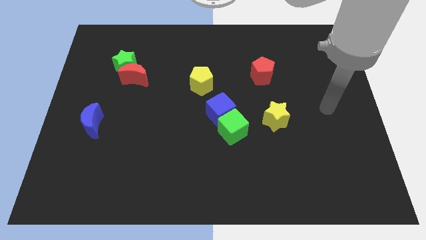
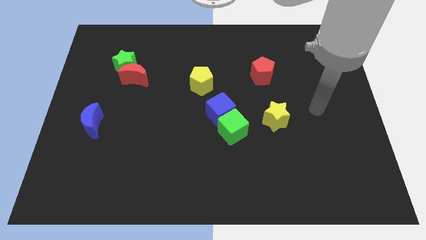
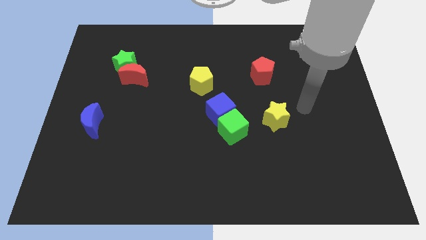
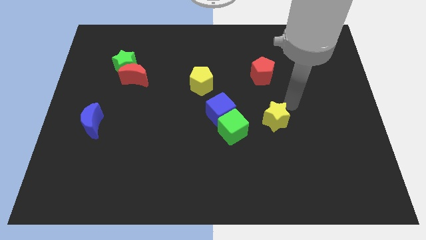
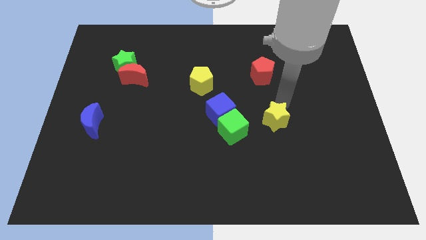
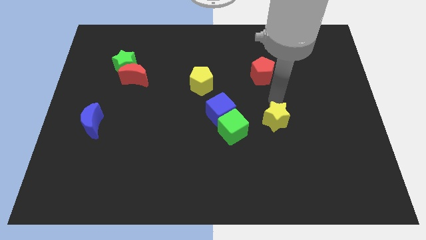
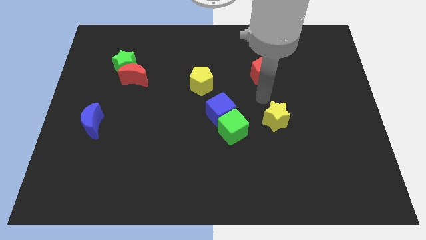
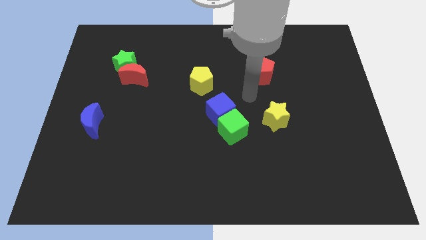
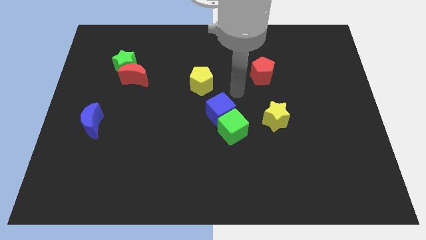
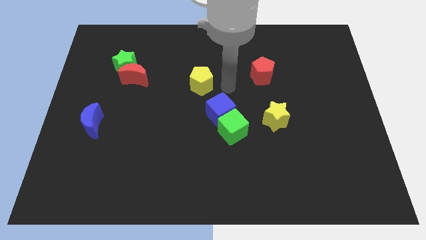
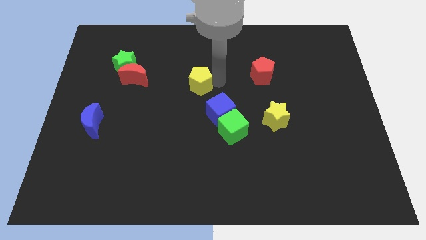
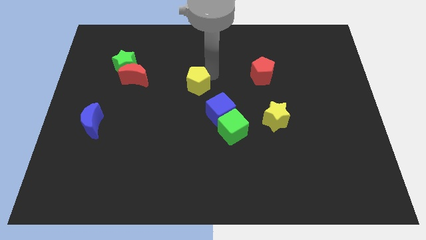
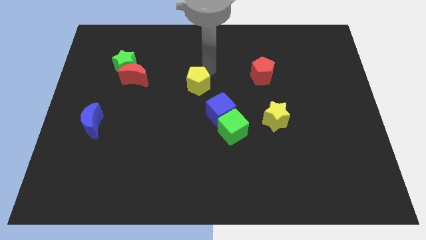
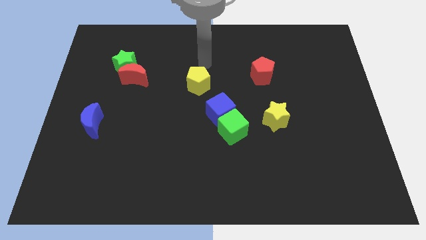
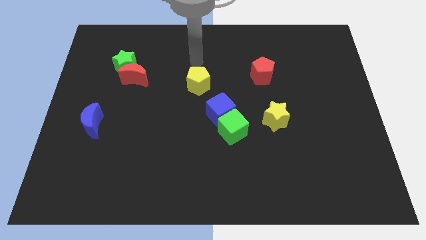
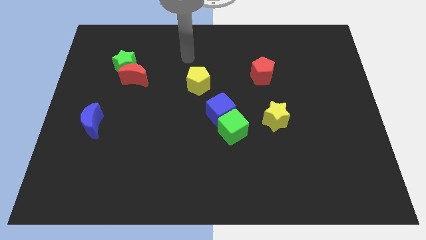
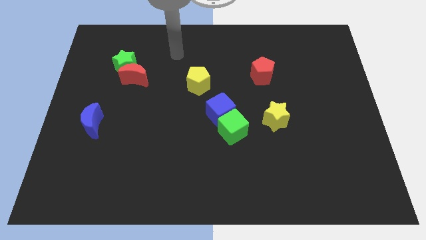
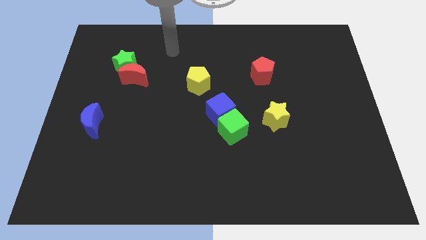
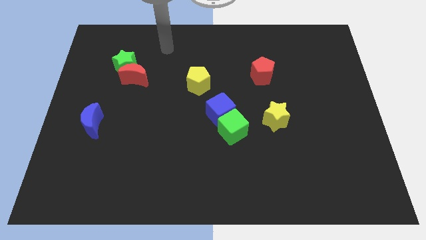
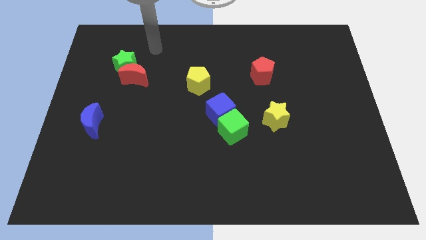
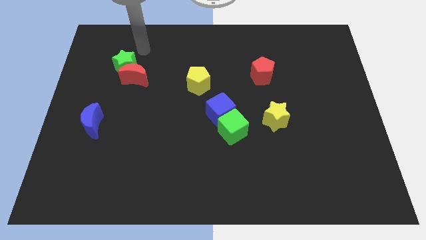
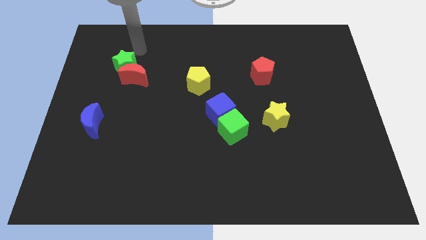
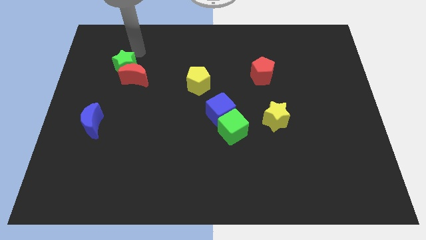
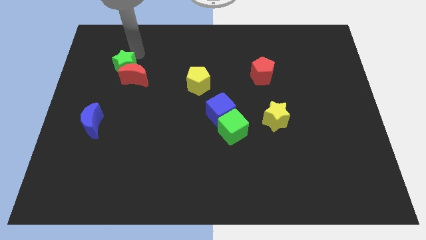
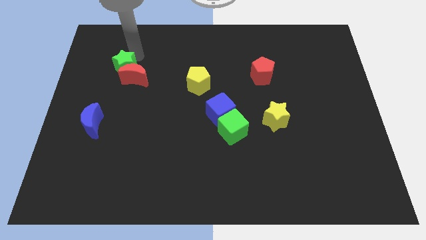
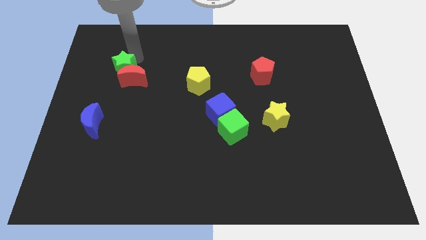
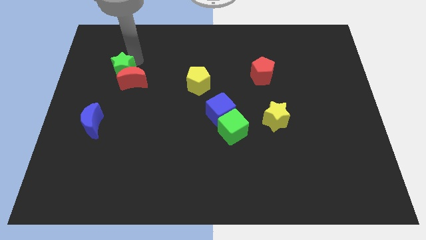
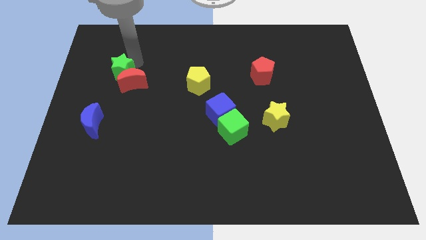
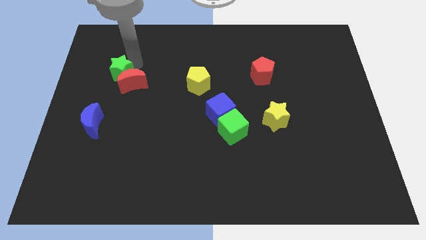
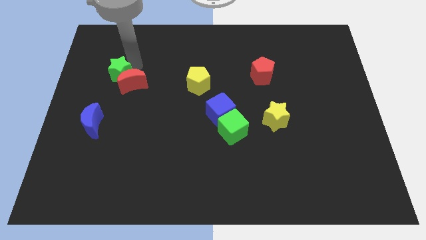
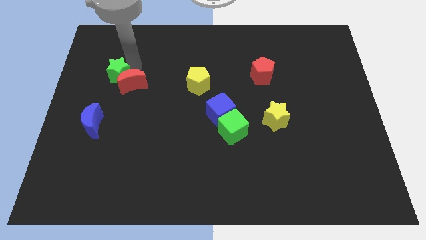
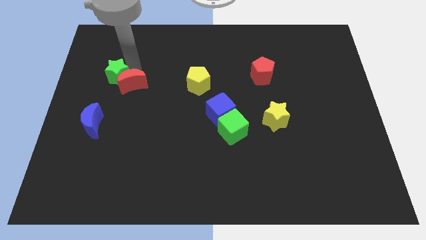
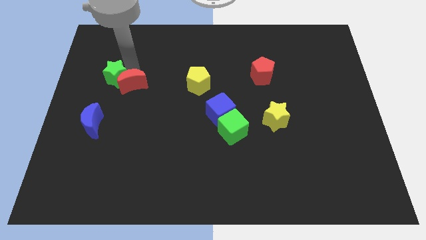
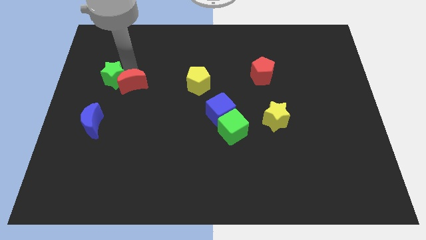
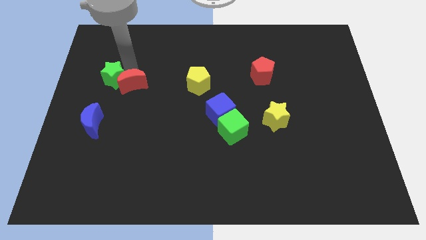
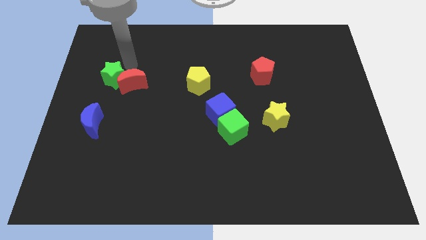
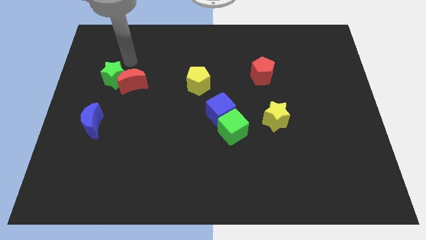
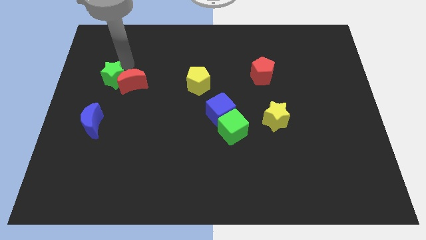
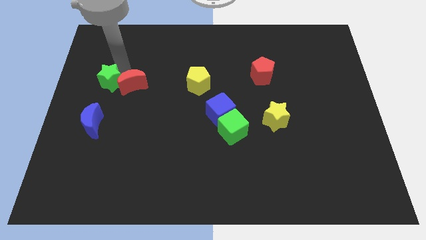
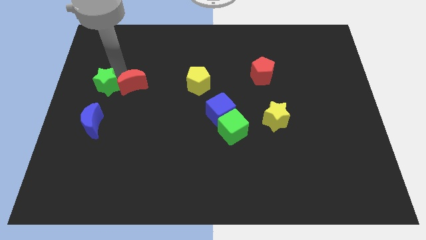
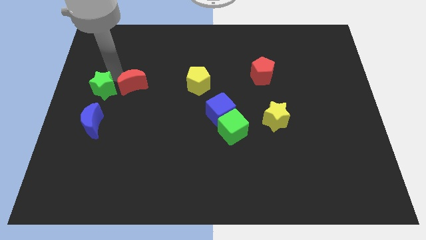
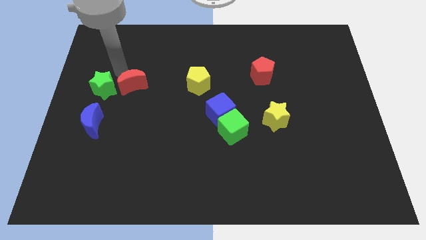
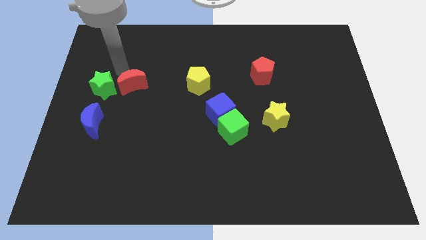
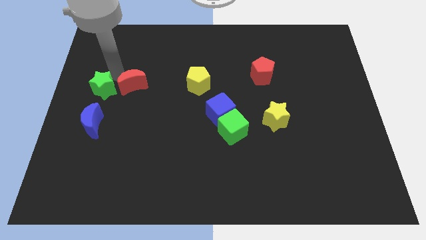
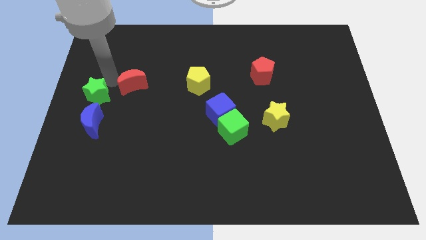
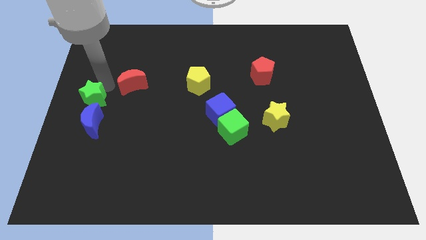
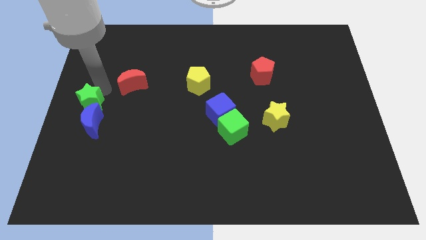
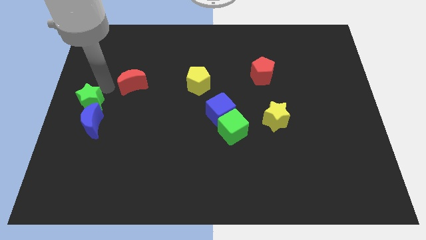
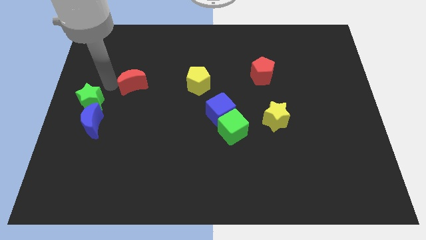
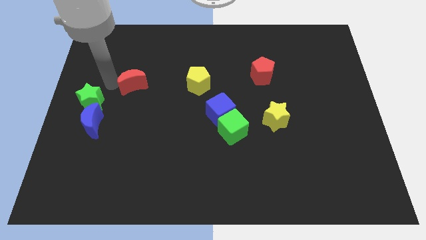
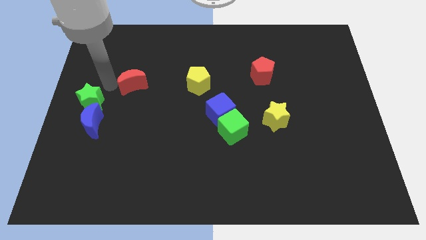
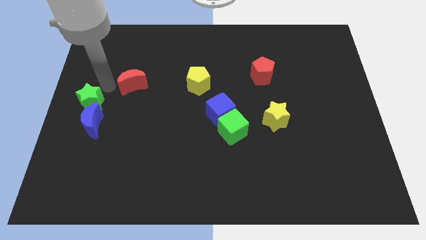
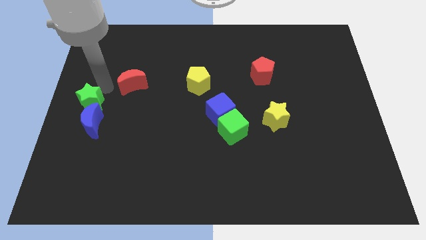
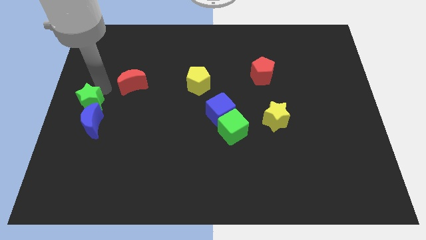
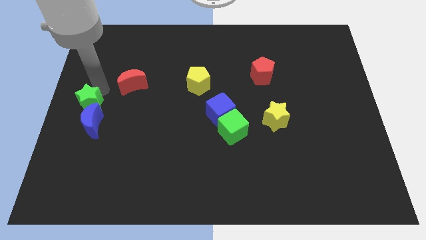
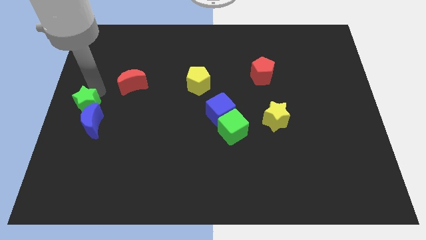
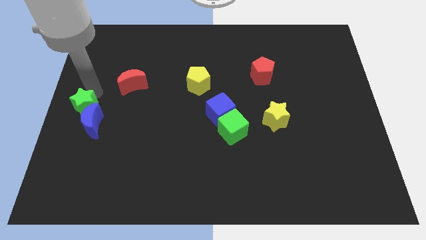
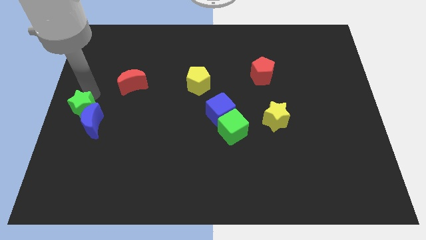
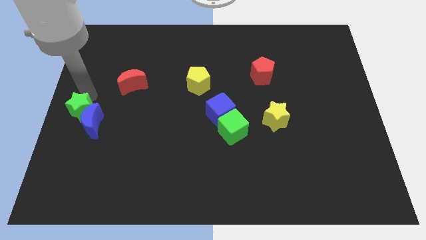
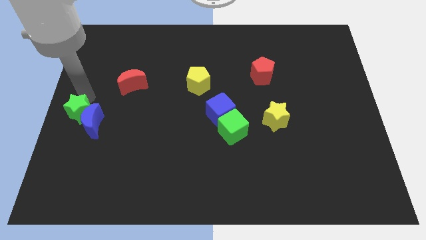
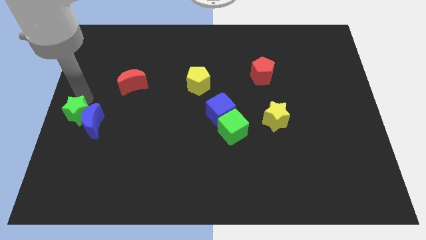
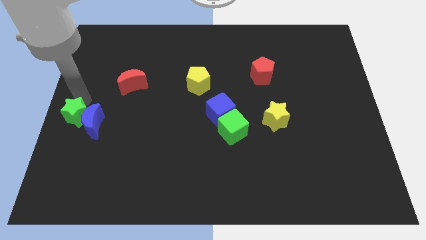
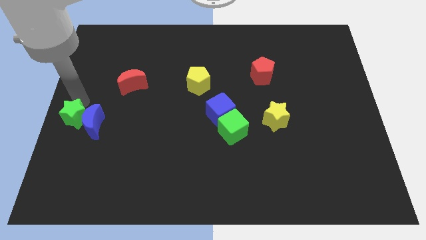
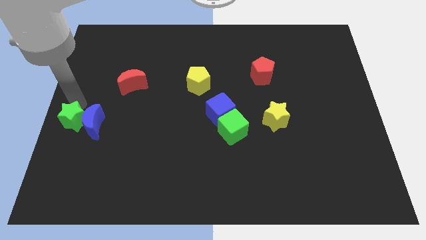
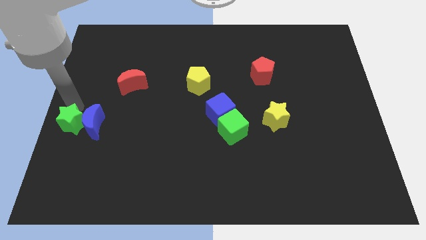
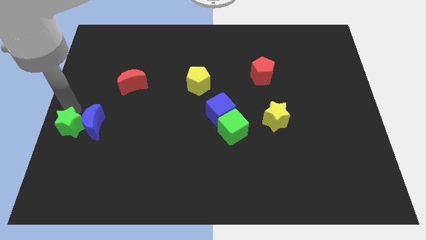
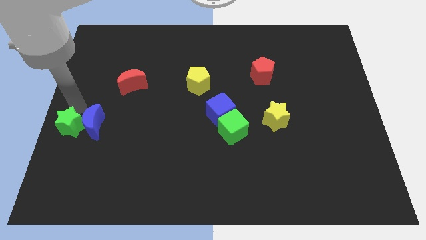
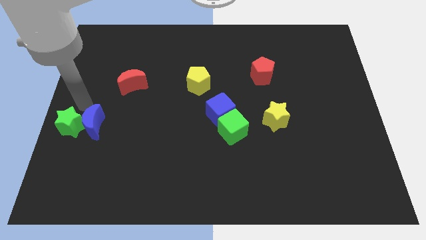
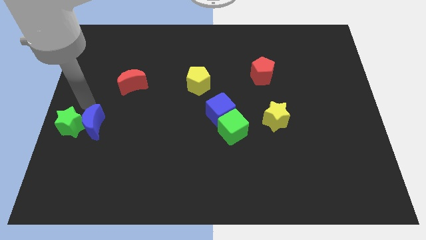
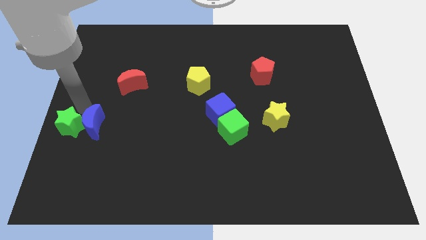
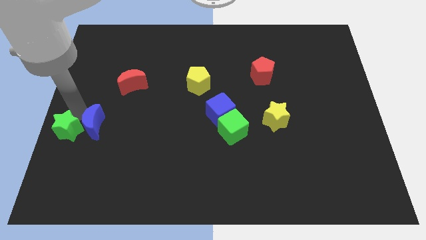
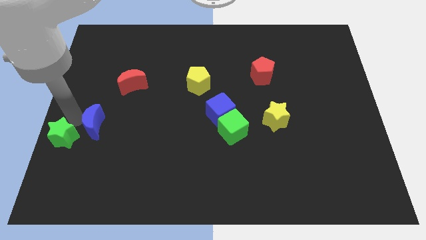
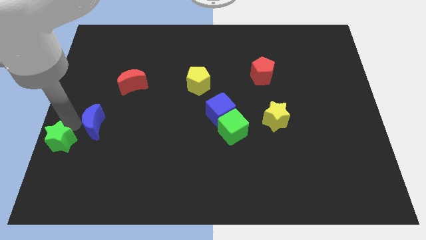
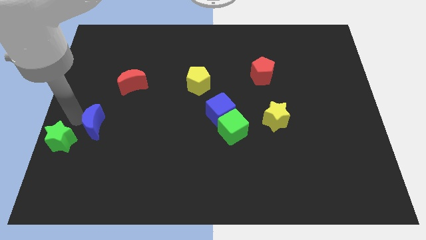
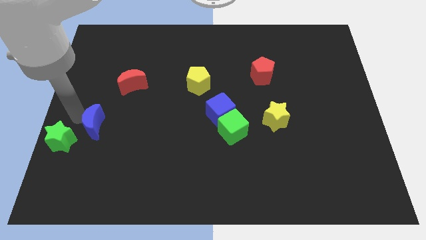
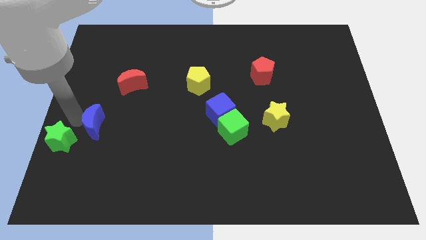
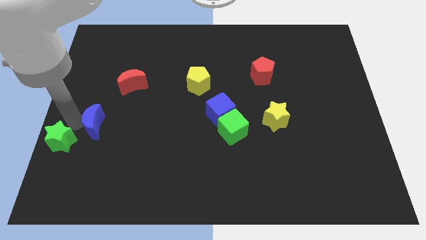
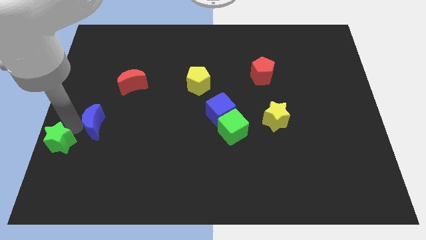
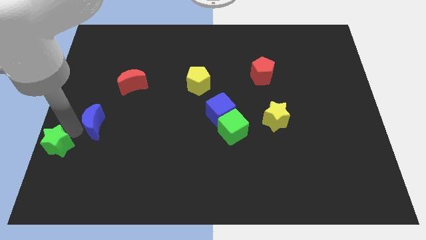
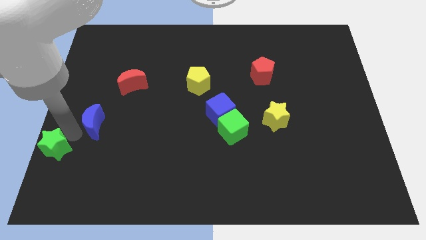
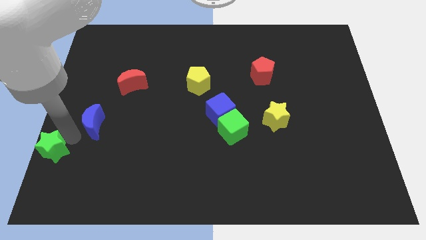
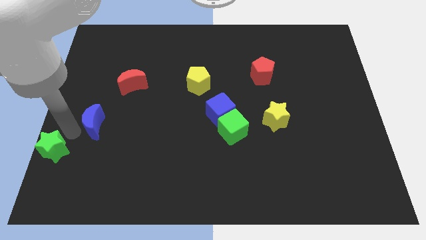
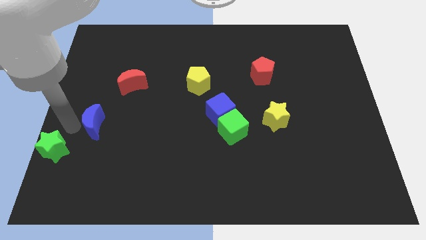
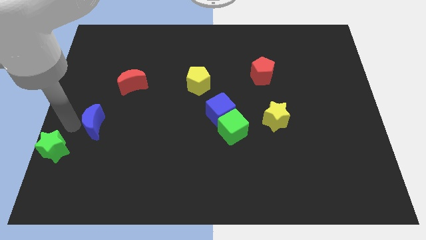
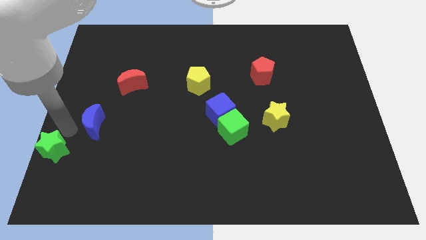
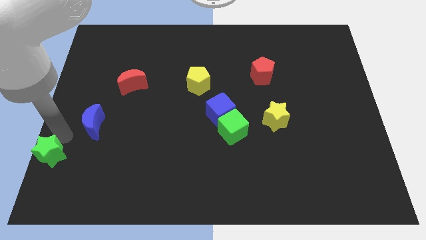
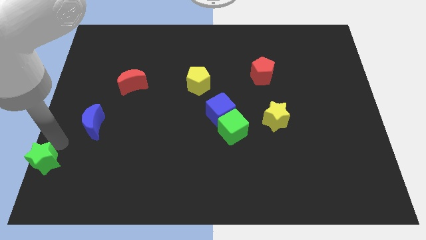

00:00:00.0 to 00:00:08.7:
slide the green star to the lower left corner
